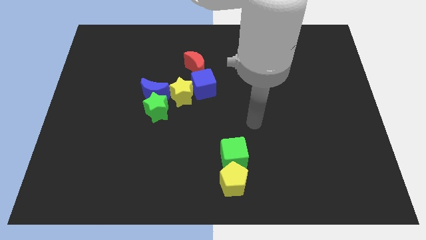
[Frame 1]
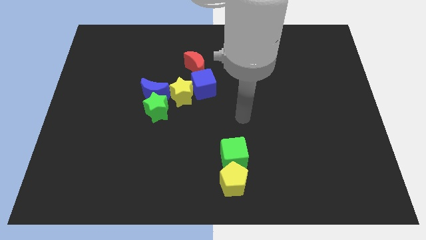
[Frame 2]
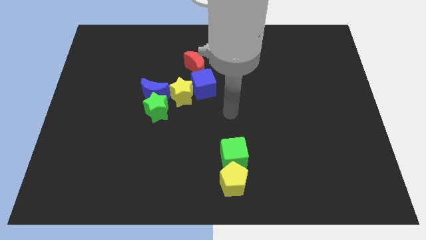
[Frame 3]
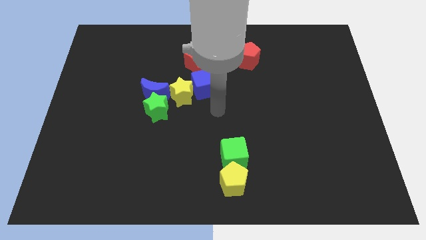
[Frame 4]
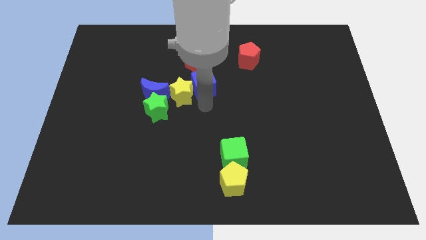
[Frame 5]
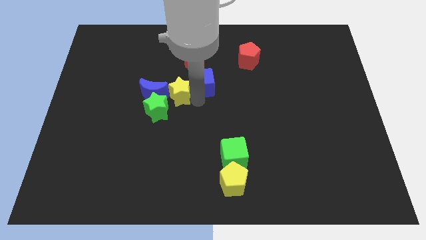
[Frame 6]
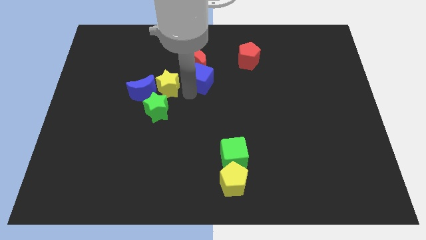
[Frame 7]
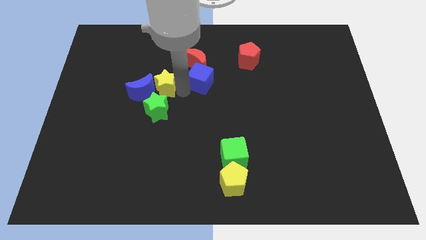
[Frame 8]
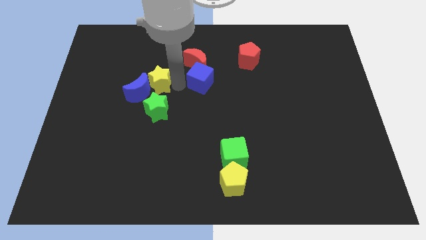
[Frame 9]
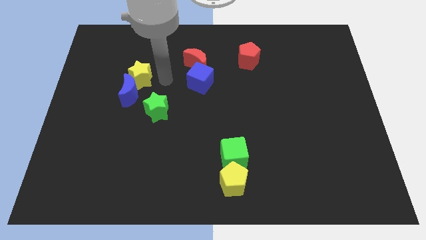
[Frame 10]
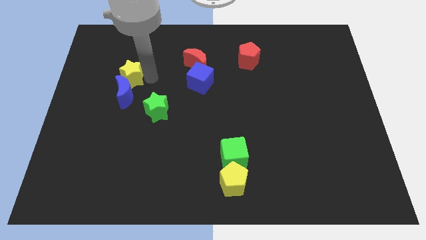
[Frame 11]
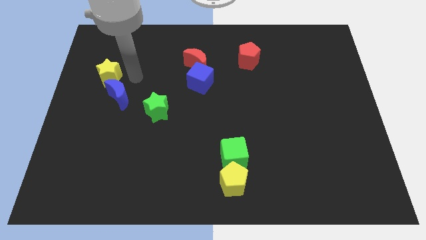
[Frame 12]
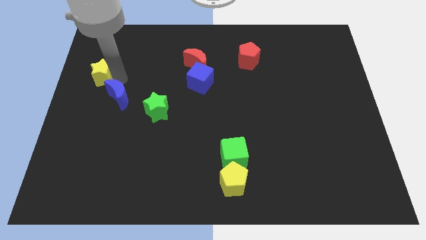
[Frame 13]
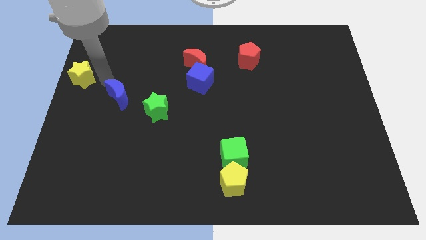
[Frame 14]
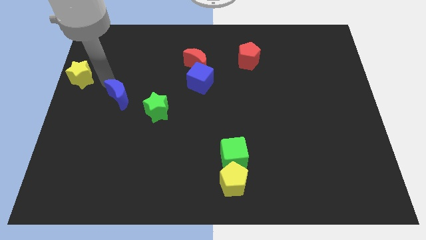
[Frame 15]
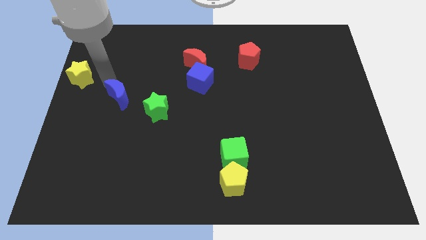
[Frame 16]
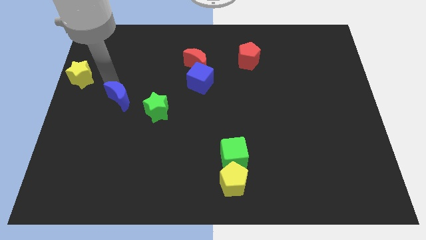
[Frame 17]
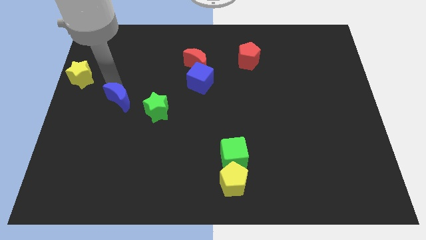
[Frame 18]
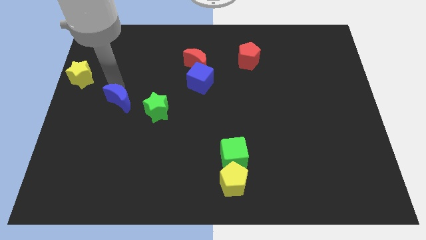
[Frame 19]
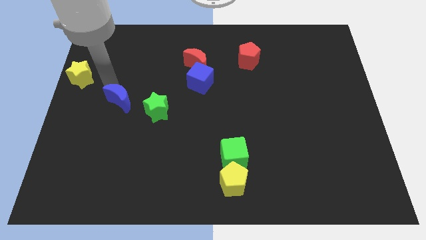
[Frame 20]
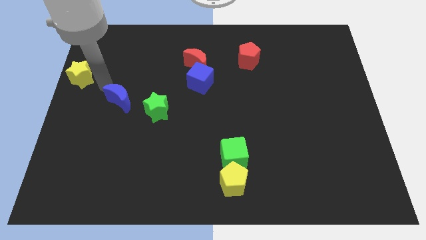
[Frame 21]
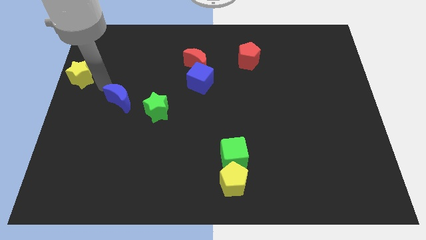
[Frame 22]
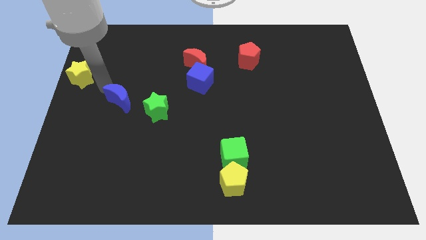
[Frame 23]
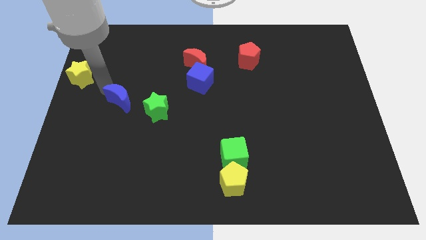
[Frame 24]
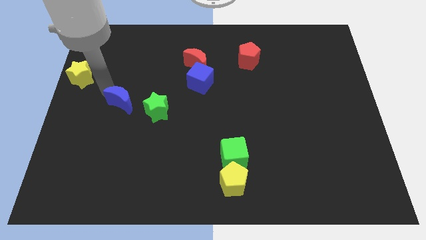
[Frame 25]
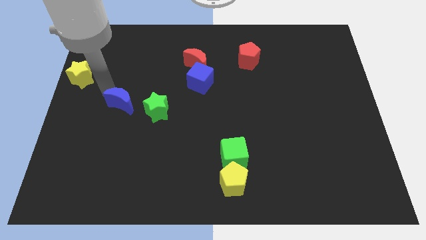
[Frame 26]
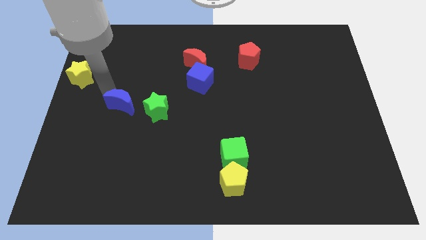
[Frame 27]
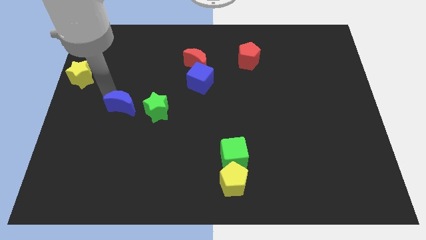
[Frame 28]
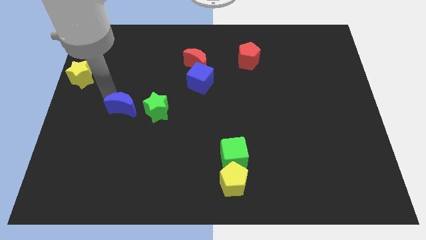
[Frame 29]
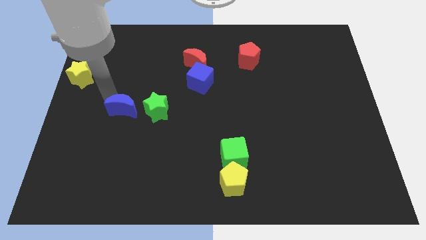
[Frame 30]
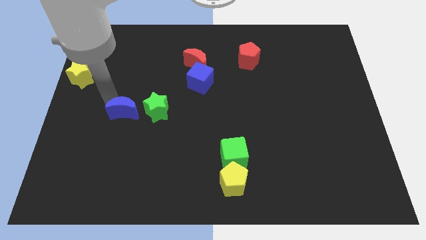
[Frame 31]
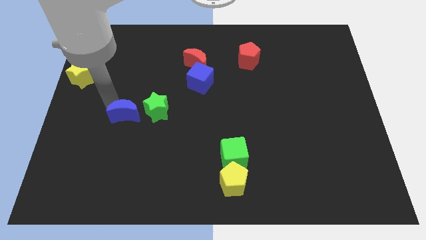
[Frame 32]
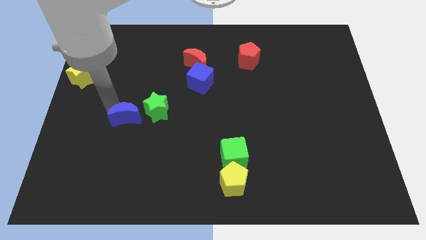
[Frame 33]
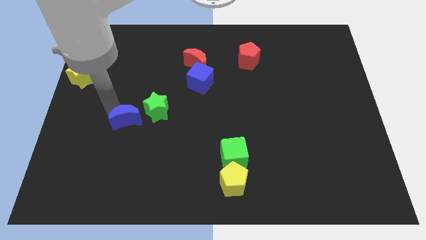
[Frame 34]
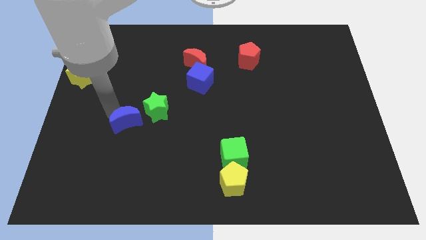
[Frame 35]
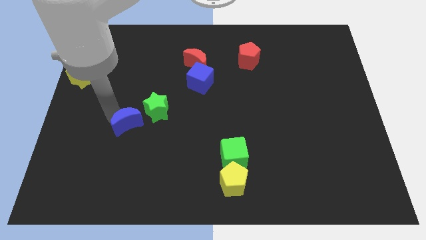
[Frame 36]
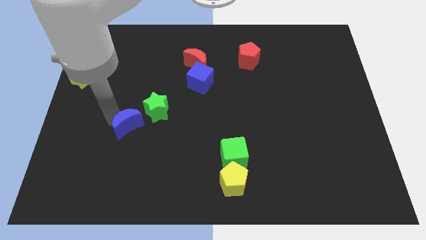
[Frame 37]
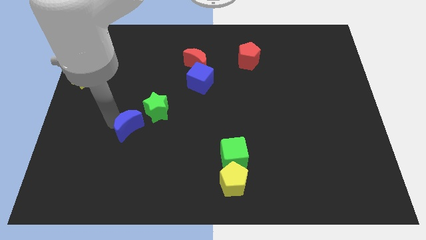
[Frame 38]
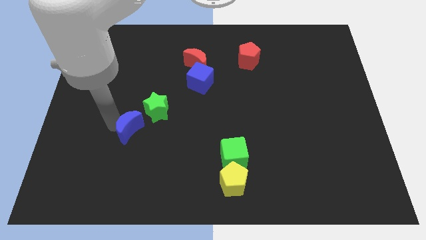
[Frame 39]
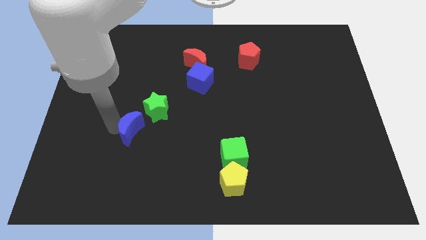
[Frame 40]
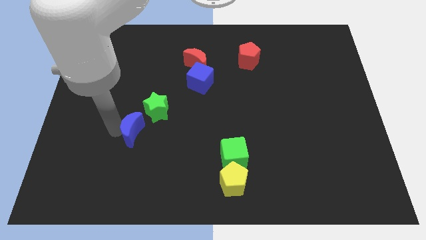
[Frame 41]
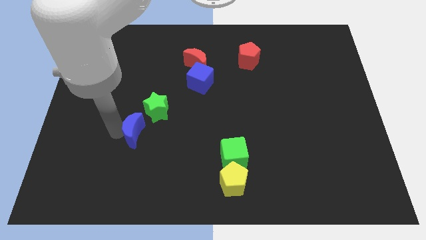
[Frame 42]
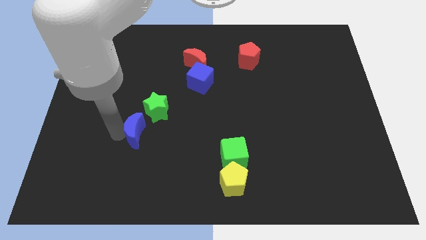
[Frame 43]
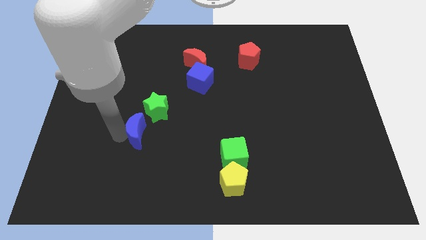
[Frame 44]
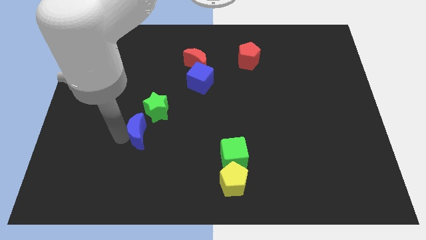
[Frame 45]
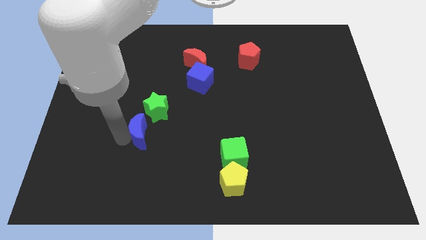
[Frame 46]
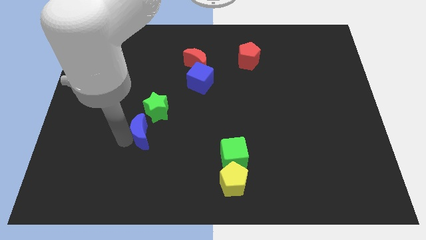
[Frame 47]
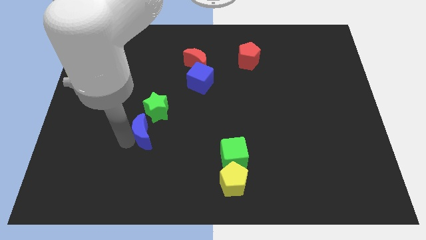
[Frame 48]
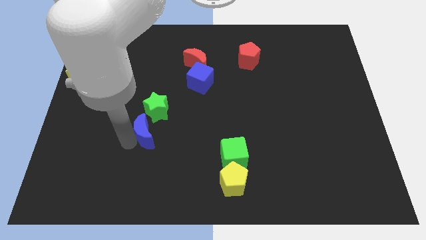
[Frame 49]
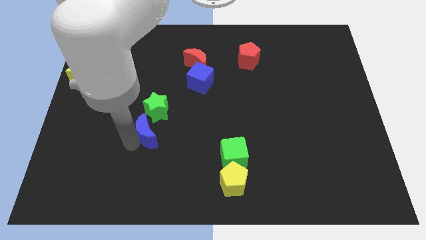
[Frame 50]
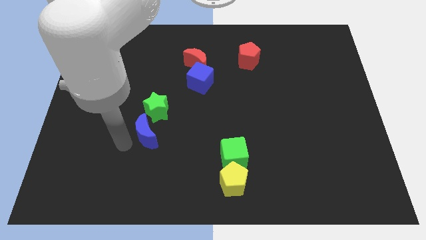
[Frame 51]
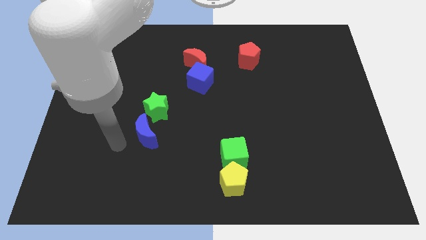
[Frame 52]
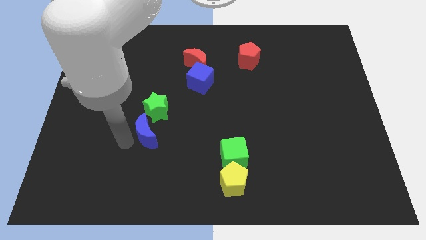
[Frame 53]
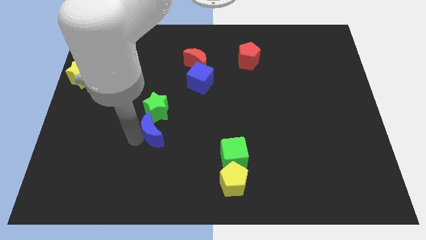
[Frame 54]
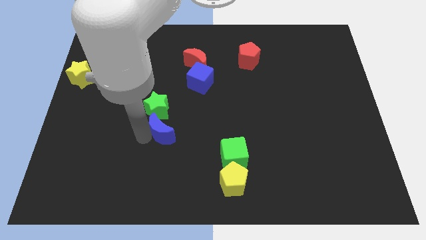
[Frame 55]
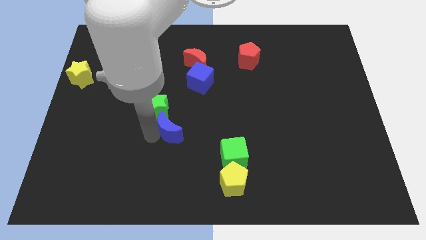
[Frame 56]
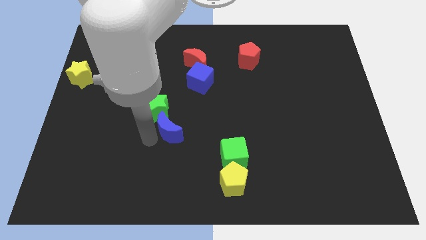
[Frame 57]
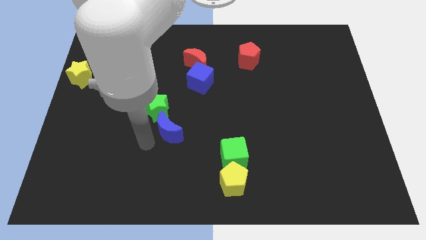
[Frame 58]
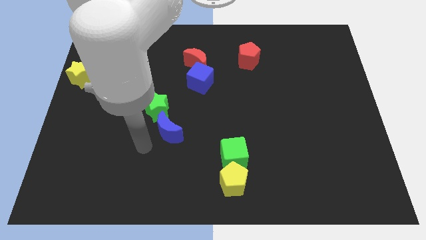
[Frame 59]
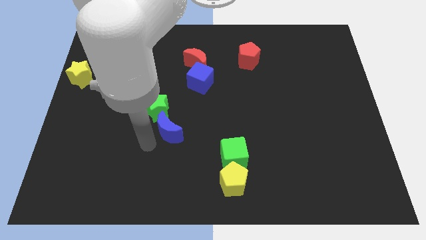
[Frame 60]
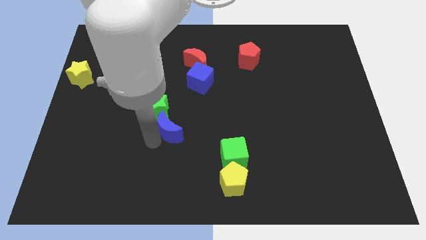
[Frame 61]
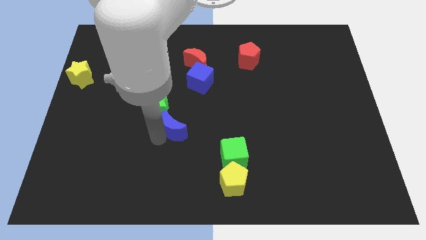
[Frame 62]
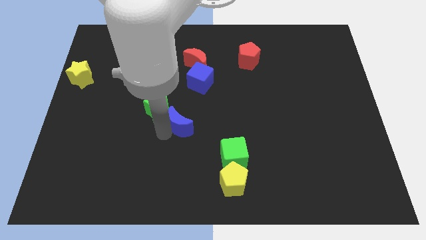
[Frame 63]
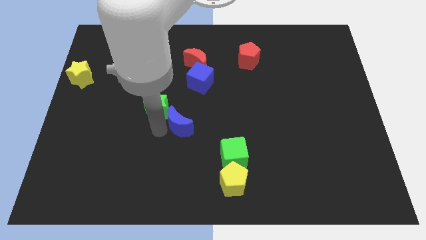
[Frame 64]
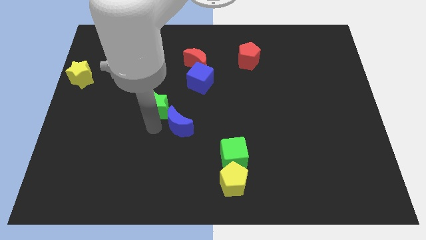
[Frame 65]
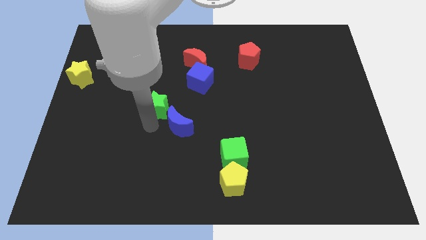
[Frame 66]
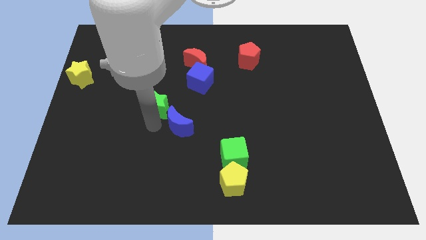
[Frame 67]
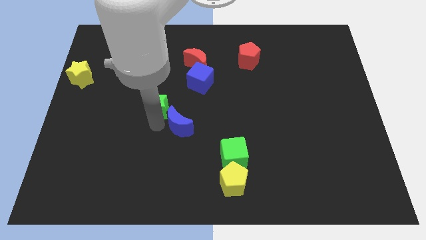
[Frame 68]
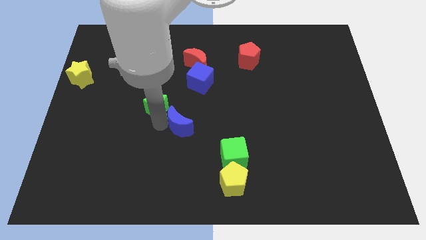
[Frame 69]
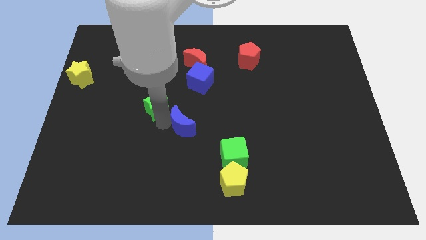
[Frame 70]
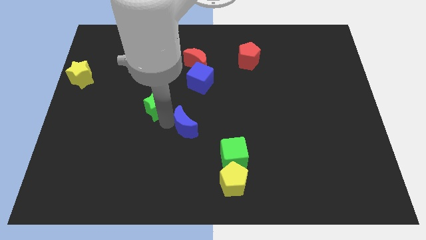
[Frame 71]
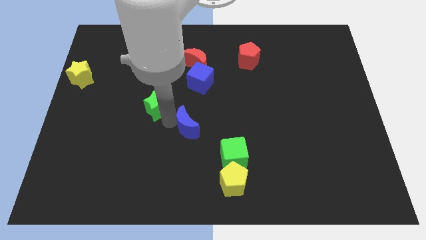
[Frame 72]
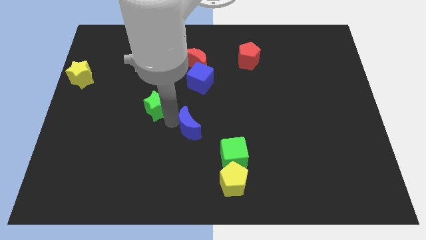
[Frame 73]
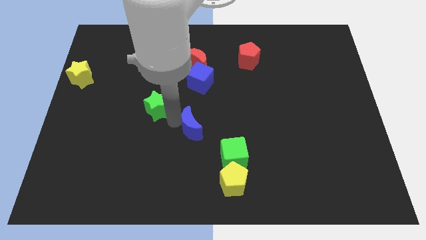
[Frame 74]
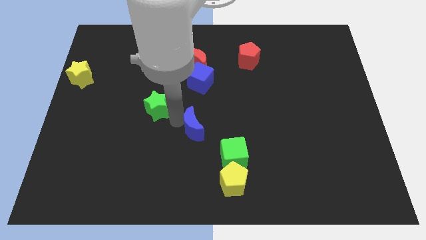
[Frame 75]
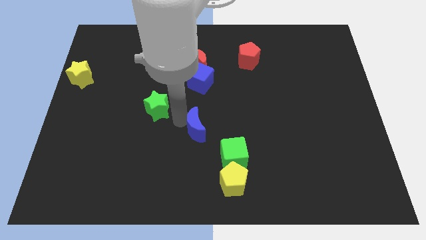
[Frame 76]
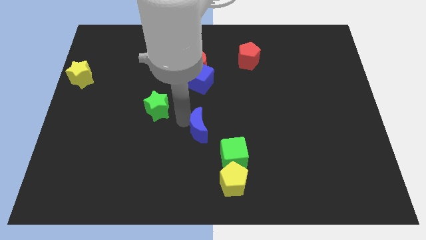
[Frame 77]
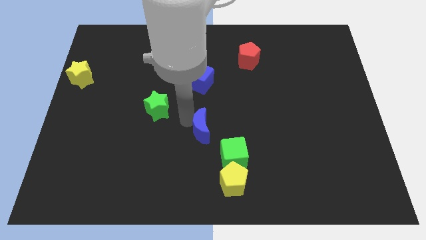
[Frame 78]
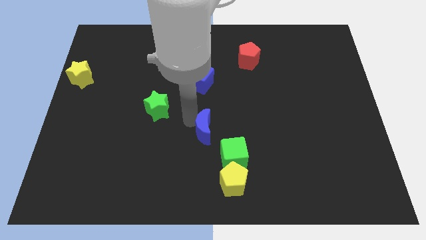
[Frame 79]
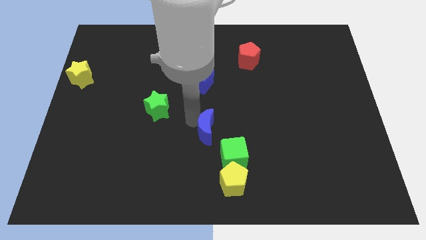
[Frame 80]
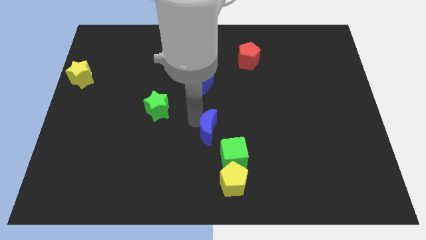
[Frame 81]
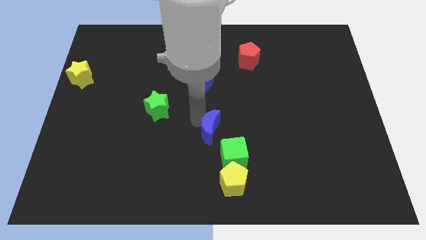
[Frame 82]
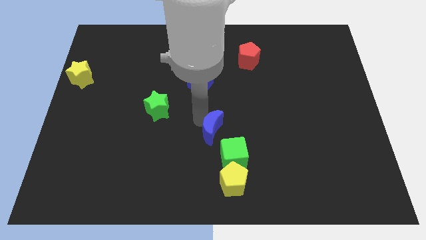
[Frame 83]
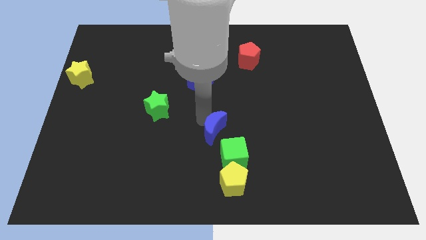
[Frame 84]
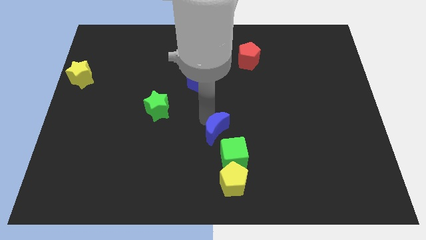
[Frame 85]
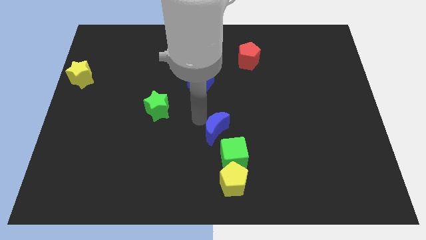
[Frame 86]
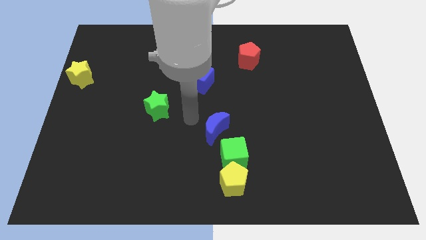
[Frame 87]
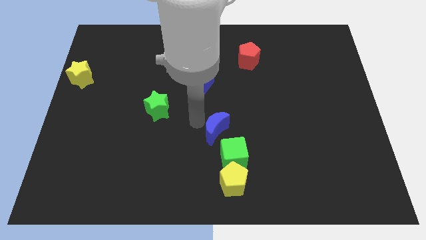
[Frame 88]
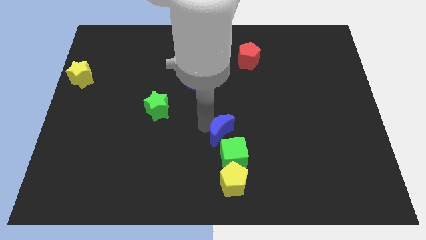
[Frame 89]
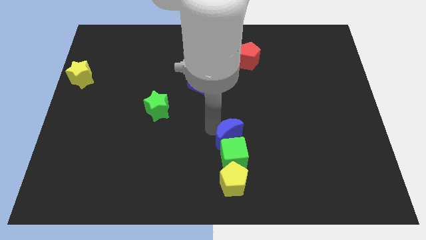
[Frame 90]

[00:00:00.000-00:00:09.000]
slide the blue moon down and to the right
